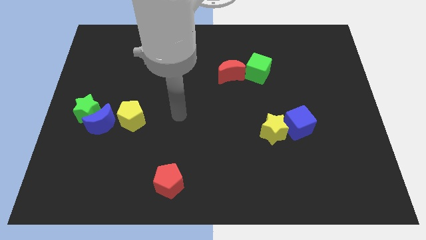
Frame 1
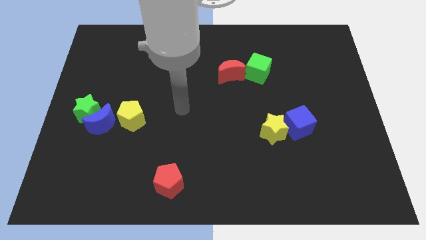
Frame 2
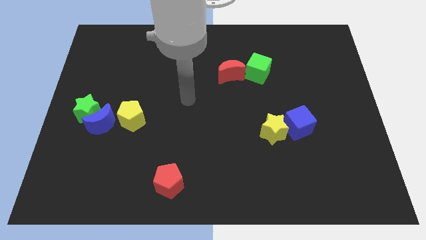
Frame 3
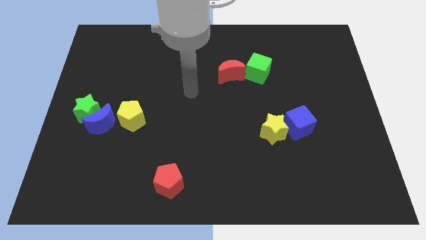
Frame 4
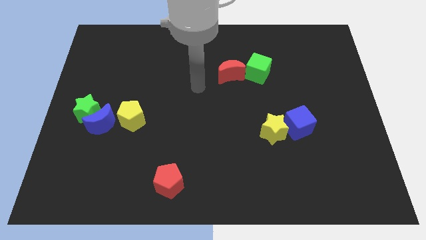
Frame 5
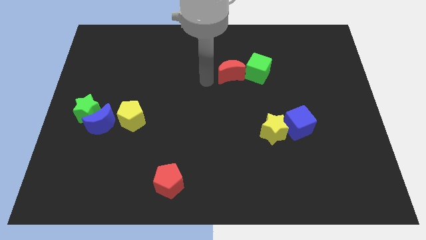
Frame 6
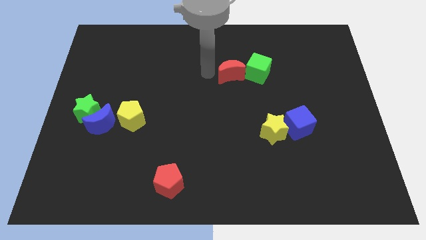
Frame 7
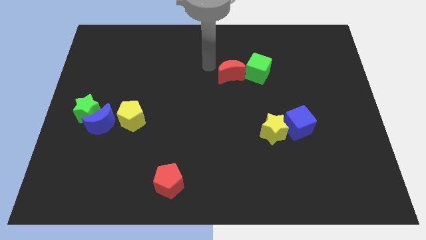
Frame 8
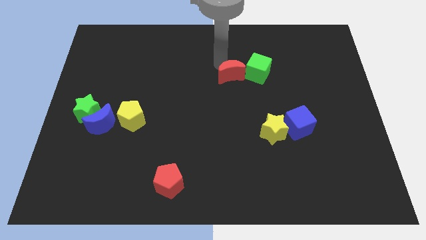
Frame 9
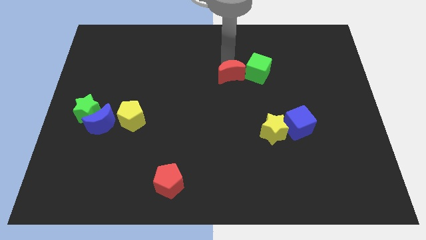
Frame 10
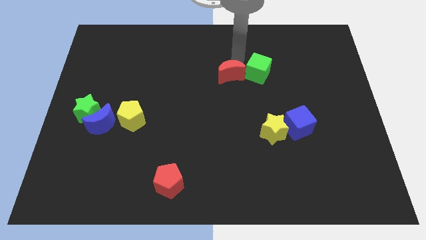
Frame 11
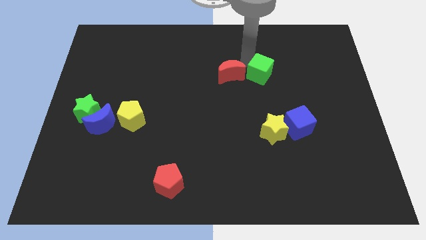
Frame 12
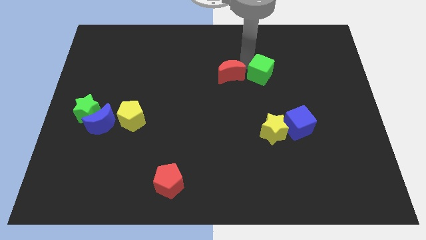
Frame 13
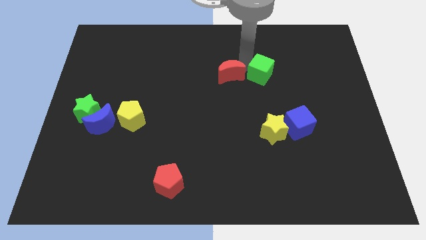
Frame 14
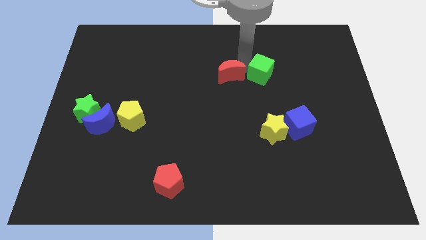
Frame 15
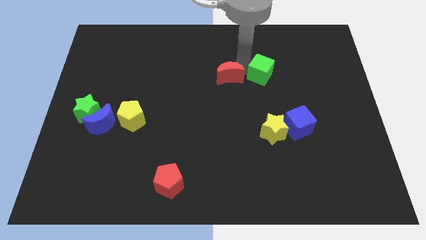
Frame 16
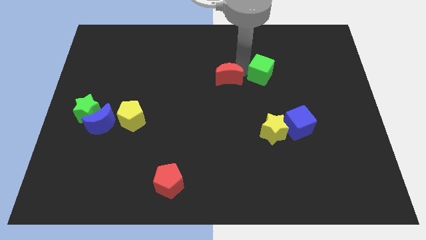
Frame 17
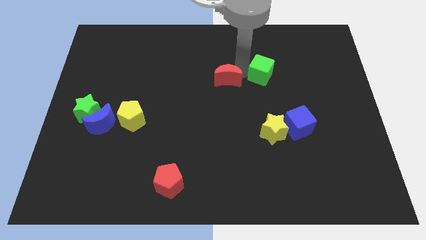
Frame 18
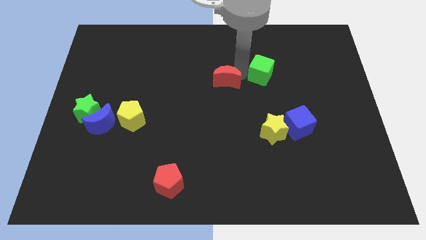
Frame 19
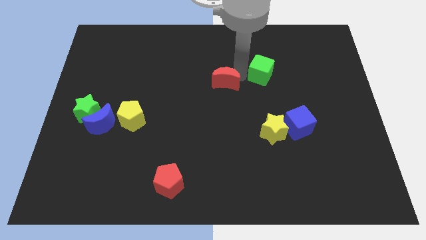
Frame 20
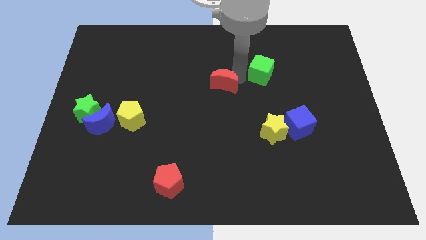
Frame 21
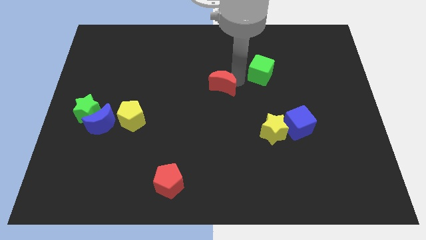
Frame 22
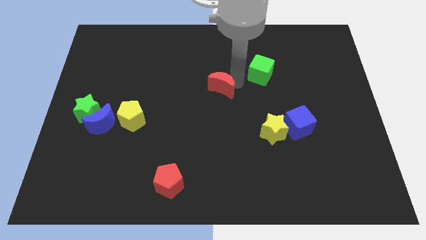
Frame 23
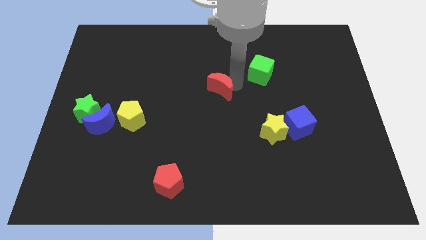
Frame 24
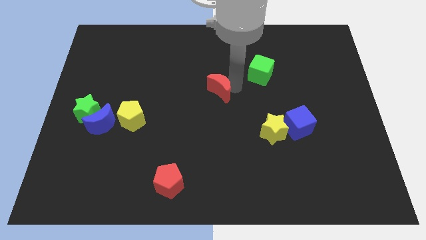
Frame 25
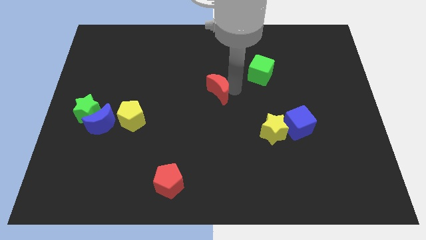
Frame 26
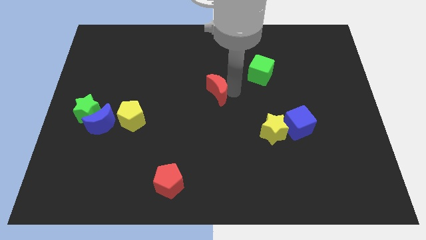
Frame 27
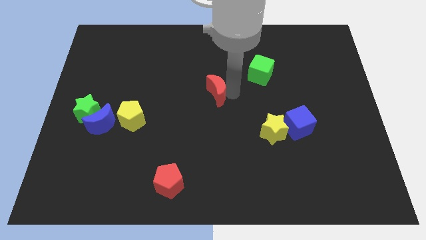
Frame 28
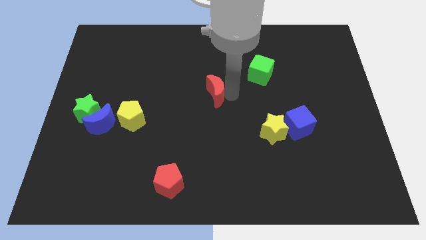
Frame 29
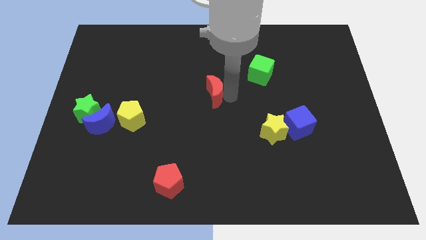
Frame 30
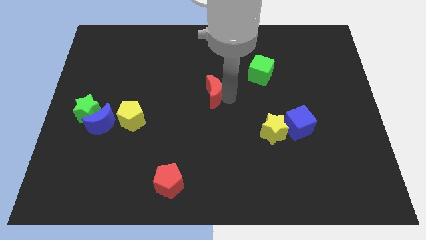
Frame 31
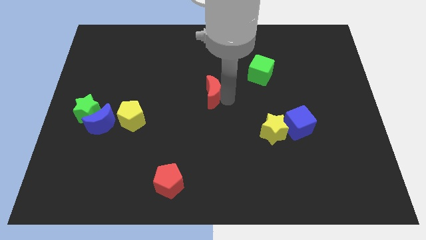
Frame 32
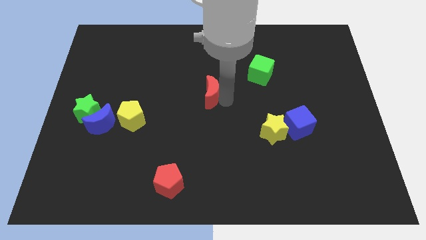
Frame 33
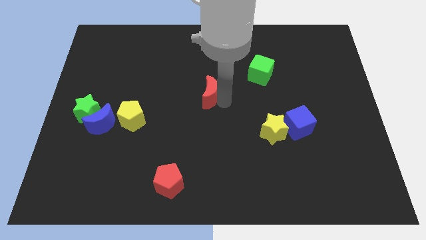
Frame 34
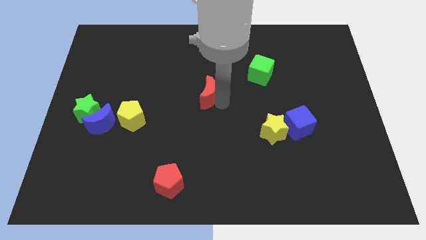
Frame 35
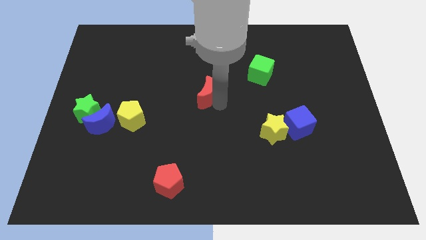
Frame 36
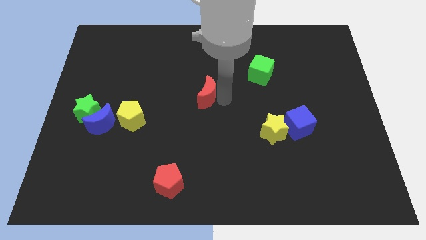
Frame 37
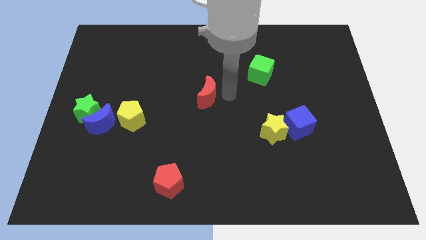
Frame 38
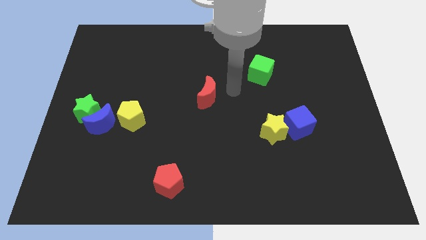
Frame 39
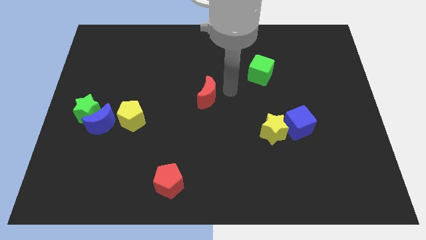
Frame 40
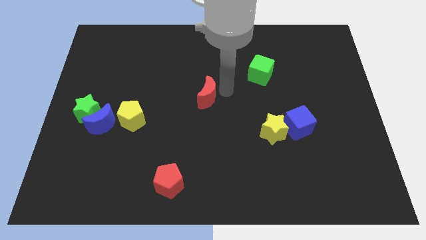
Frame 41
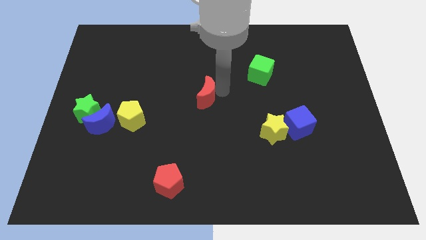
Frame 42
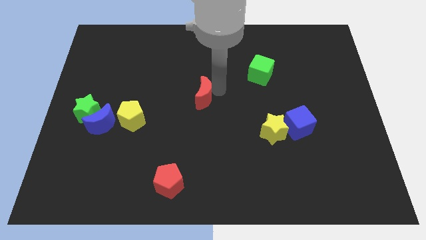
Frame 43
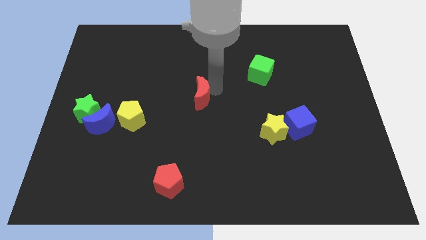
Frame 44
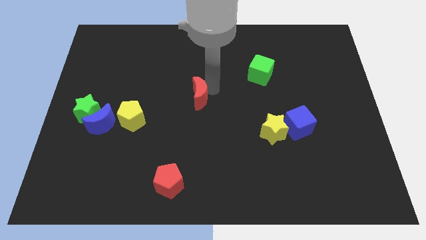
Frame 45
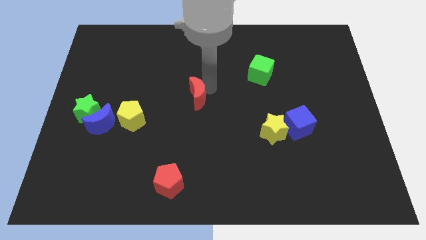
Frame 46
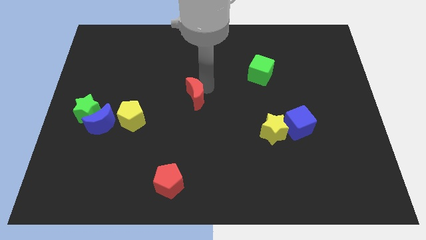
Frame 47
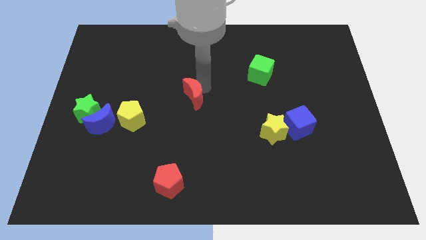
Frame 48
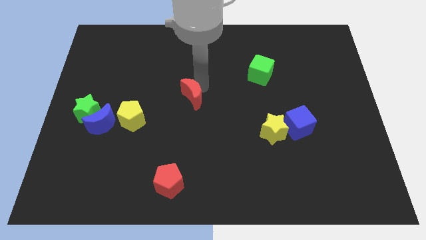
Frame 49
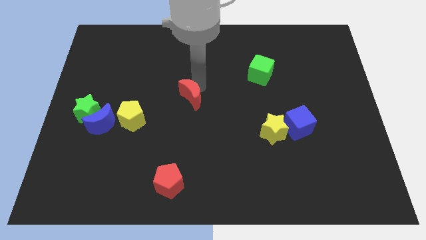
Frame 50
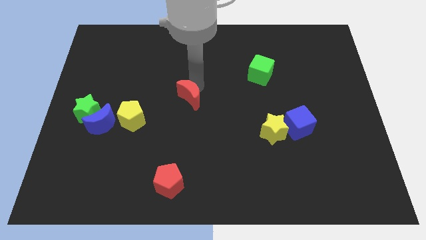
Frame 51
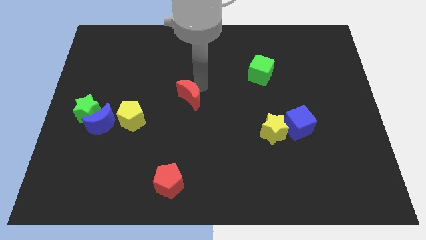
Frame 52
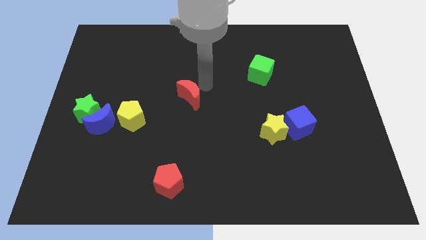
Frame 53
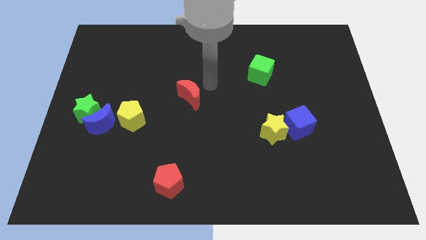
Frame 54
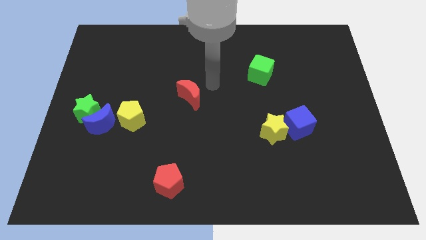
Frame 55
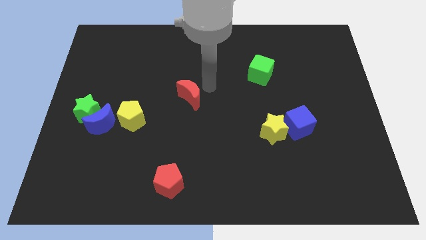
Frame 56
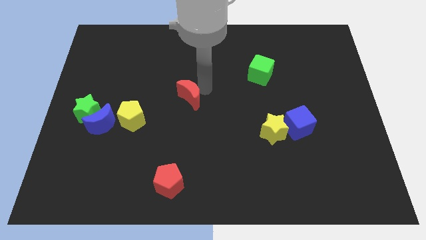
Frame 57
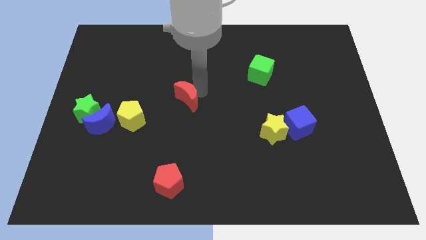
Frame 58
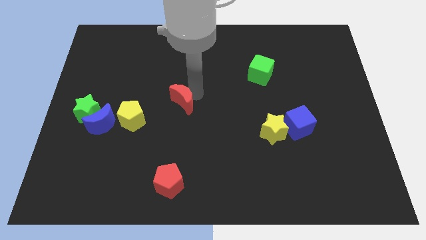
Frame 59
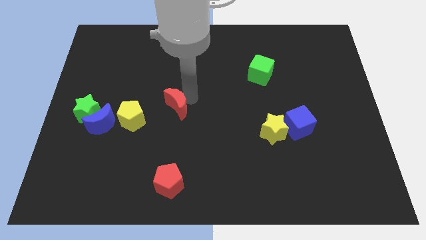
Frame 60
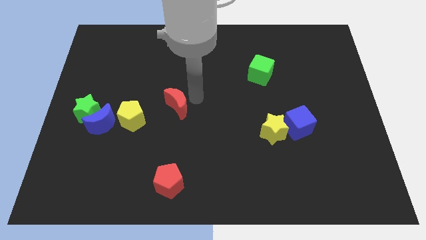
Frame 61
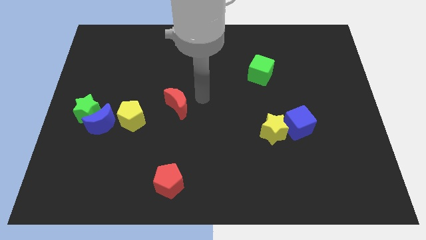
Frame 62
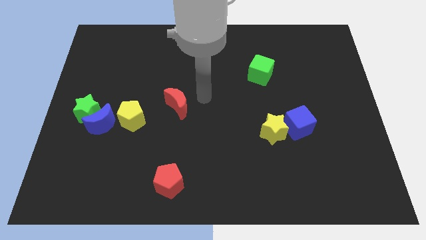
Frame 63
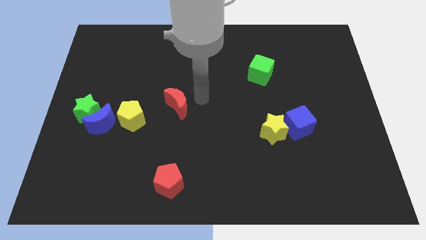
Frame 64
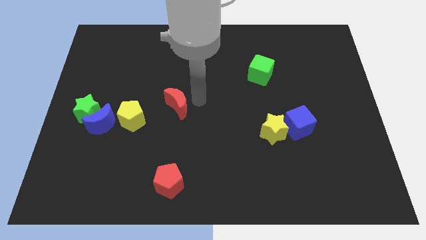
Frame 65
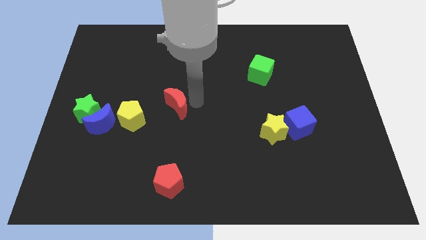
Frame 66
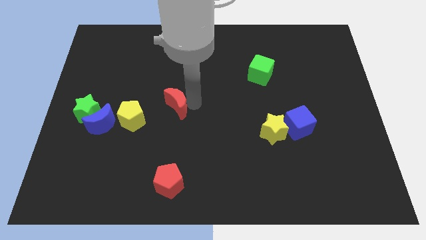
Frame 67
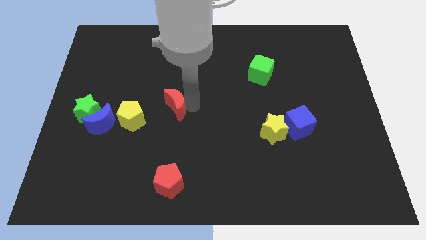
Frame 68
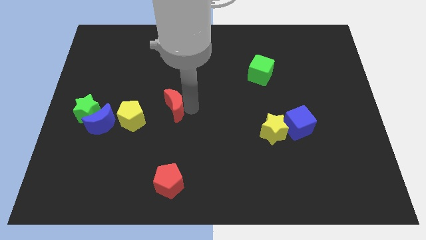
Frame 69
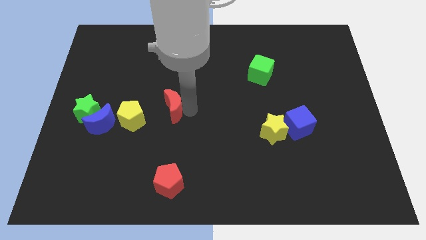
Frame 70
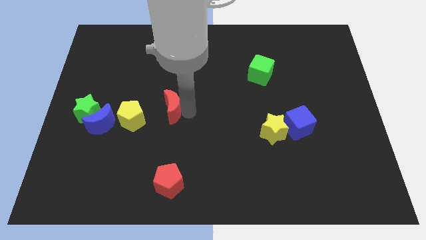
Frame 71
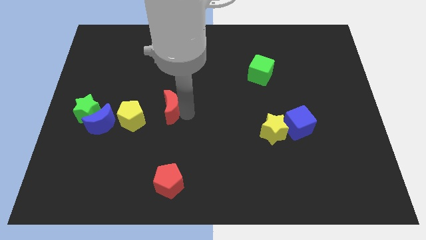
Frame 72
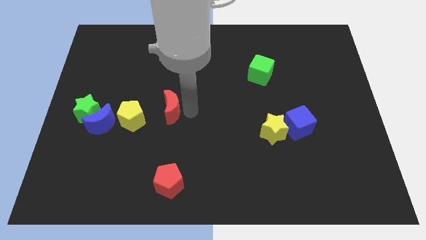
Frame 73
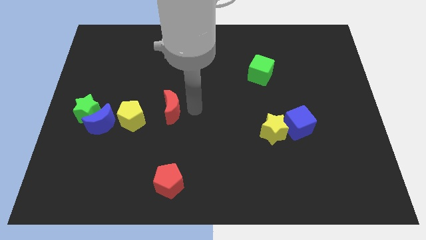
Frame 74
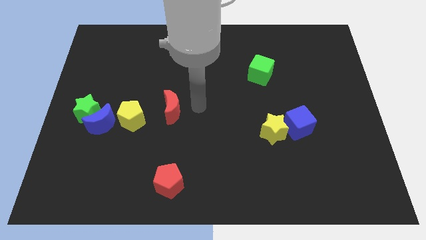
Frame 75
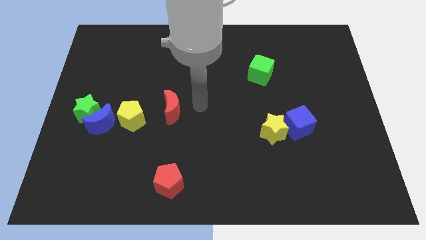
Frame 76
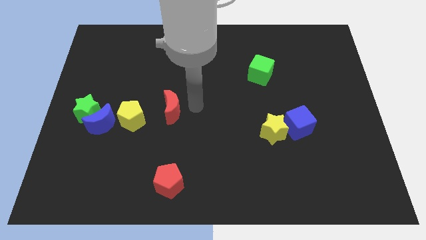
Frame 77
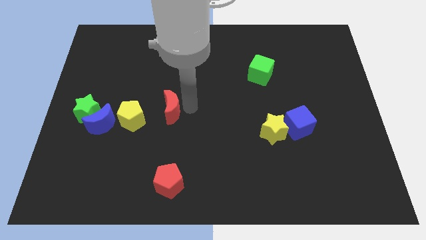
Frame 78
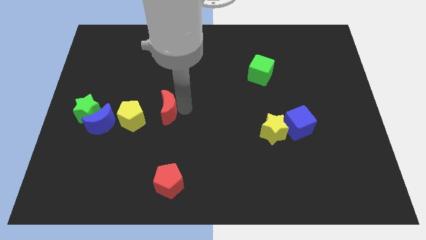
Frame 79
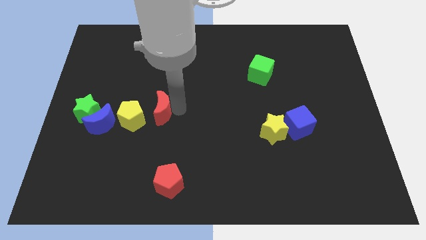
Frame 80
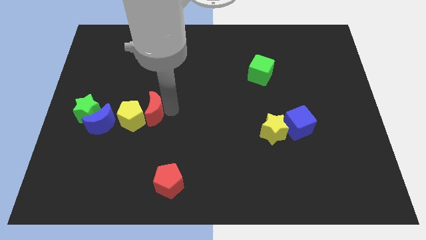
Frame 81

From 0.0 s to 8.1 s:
slide the red moon close to the yellow pentagon
